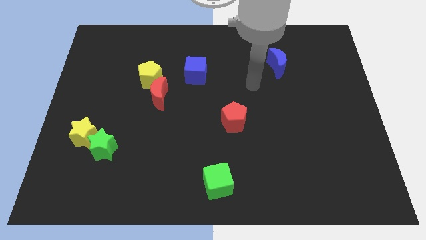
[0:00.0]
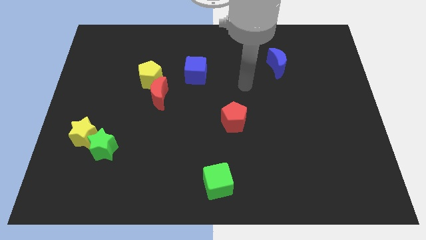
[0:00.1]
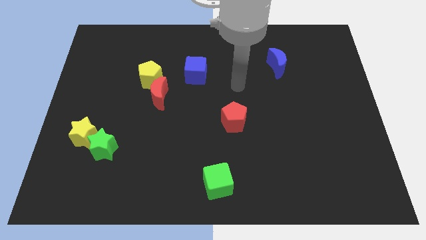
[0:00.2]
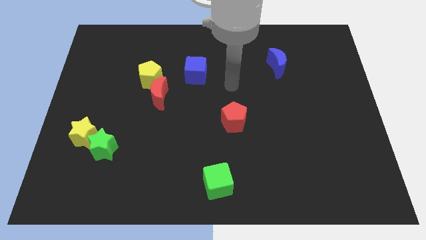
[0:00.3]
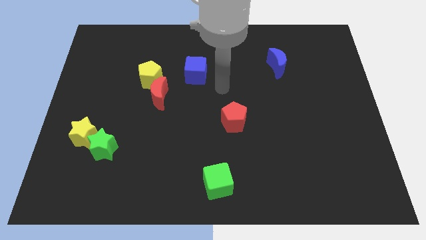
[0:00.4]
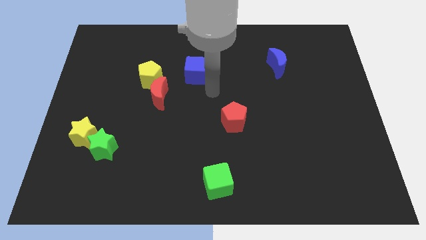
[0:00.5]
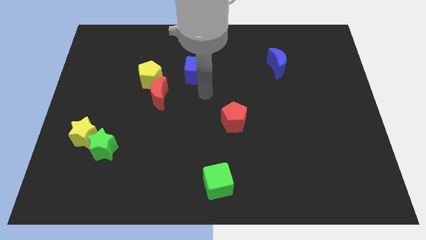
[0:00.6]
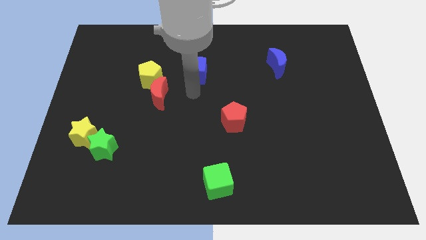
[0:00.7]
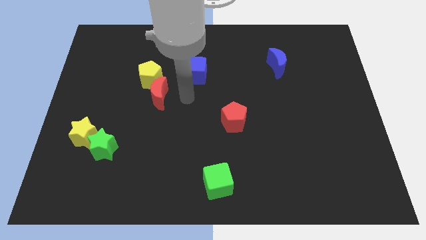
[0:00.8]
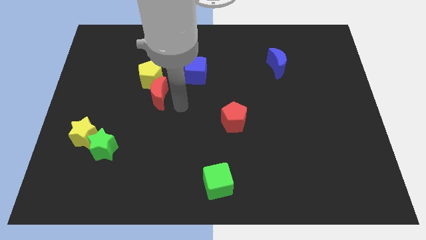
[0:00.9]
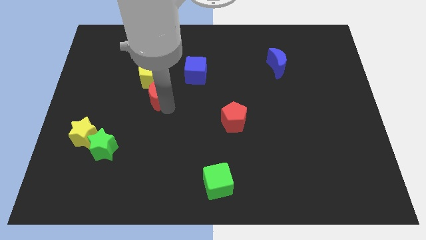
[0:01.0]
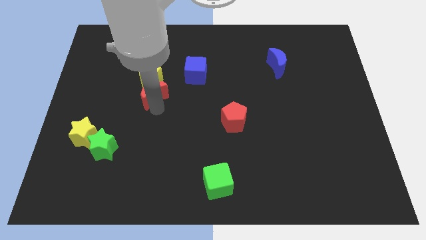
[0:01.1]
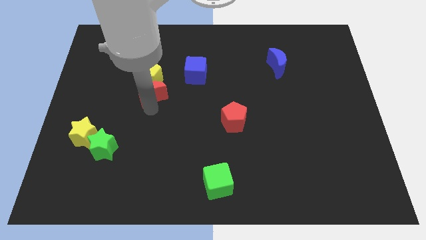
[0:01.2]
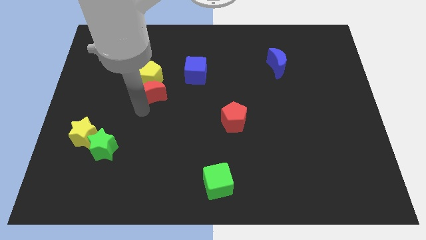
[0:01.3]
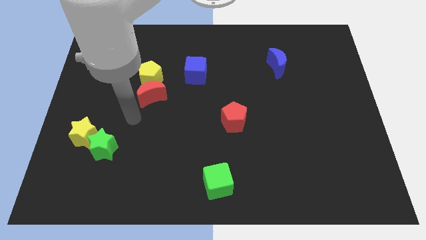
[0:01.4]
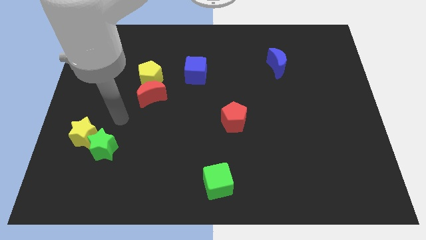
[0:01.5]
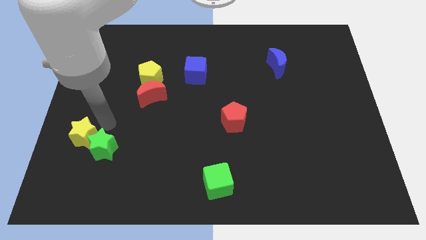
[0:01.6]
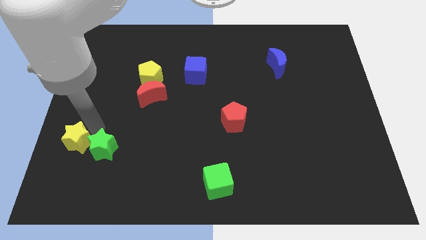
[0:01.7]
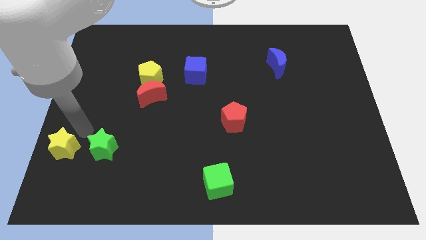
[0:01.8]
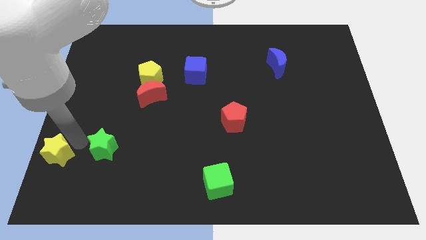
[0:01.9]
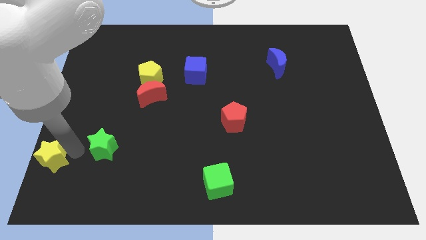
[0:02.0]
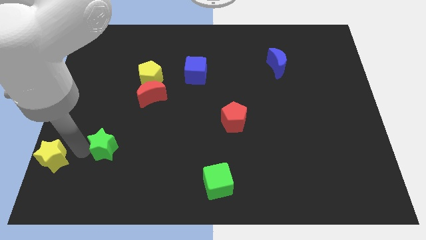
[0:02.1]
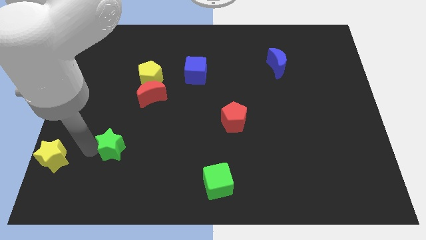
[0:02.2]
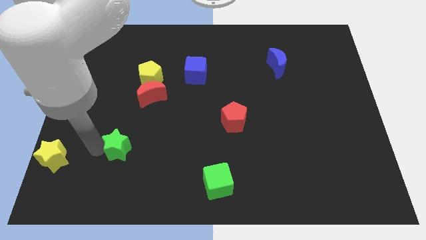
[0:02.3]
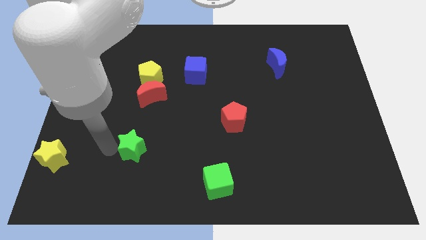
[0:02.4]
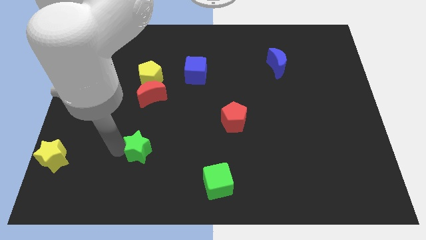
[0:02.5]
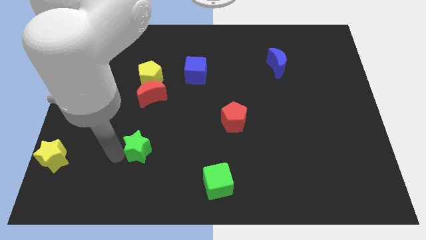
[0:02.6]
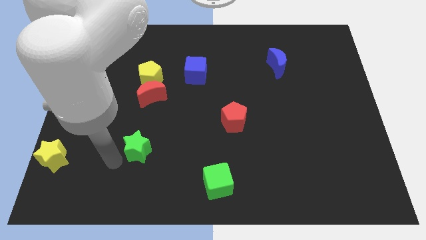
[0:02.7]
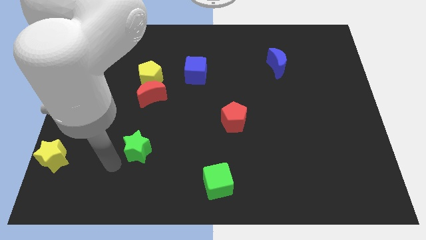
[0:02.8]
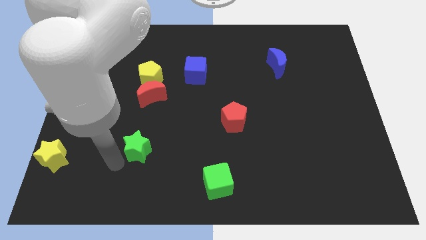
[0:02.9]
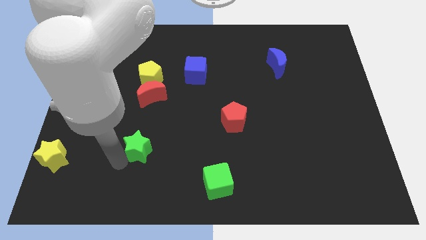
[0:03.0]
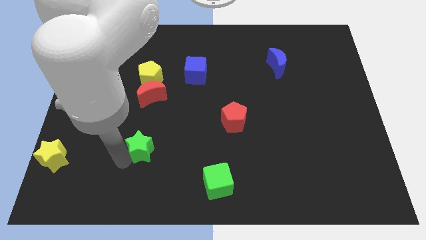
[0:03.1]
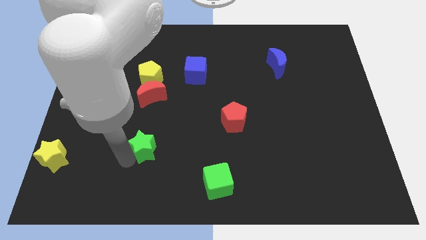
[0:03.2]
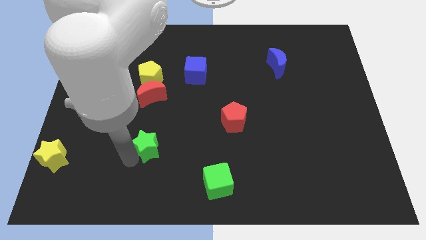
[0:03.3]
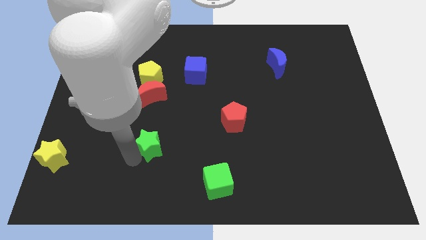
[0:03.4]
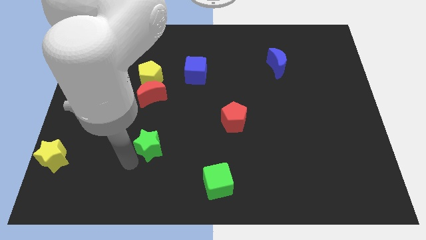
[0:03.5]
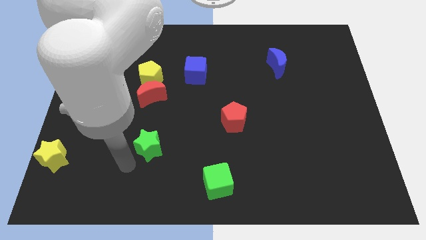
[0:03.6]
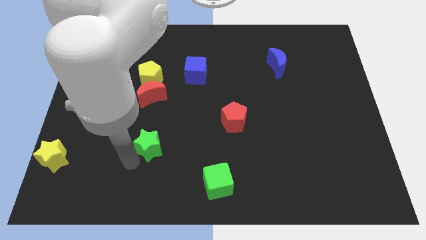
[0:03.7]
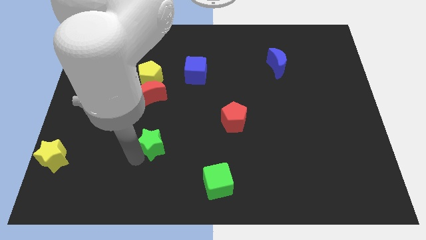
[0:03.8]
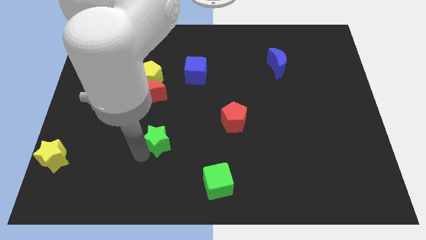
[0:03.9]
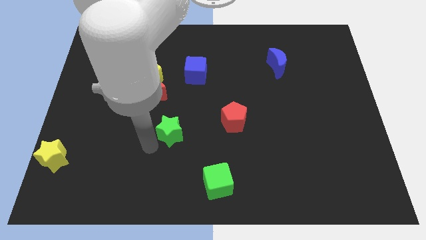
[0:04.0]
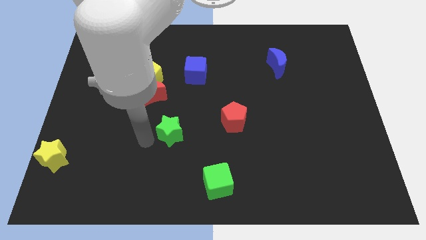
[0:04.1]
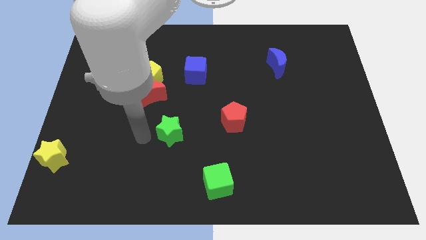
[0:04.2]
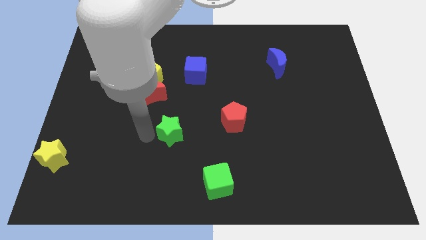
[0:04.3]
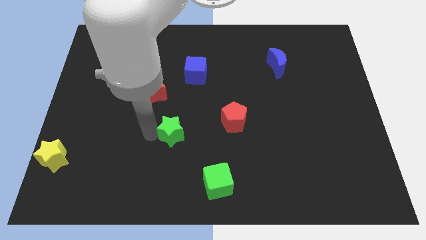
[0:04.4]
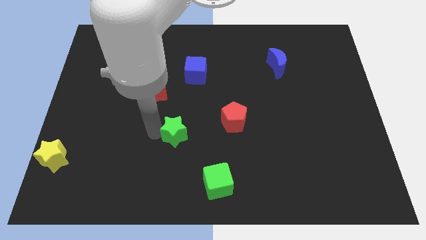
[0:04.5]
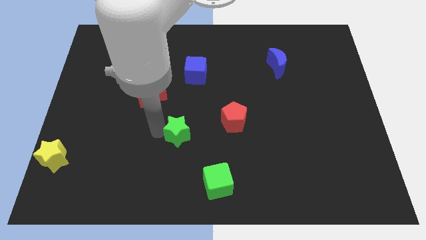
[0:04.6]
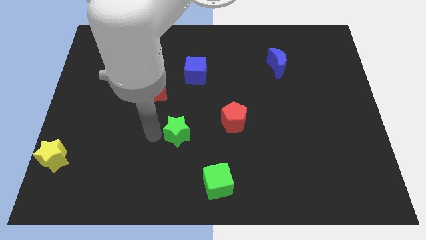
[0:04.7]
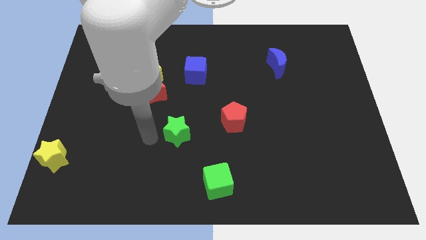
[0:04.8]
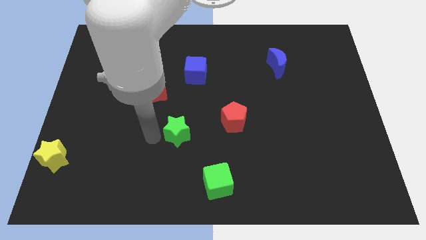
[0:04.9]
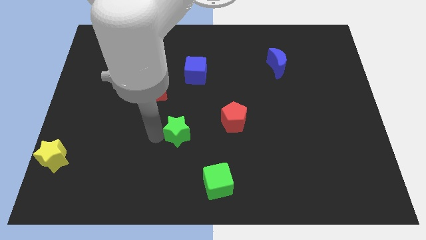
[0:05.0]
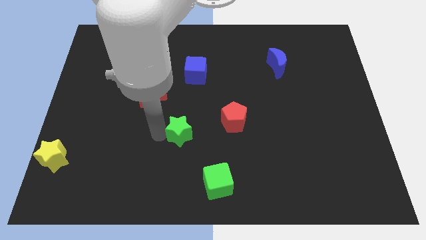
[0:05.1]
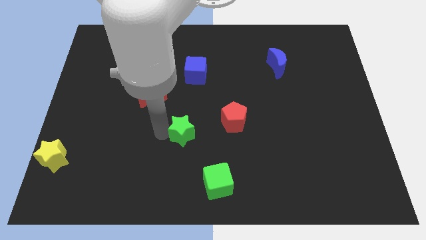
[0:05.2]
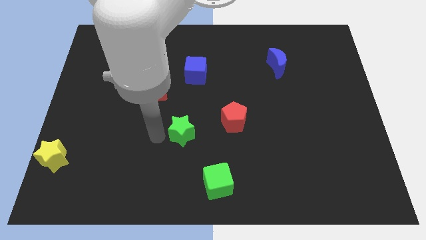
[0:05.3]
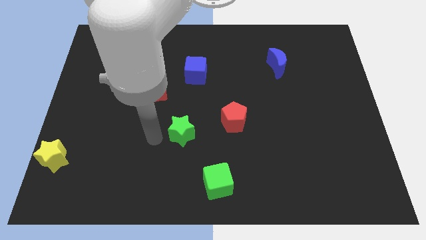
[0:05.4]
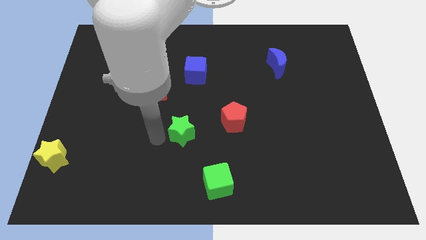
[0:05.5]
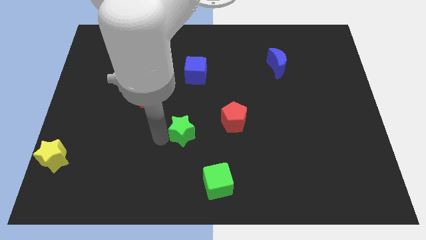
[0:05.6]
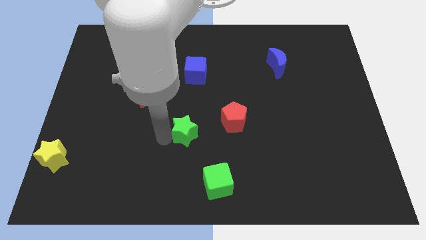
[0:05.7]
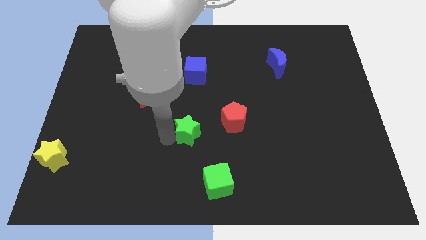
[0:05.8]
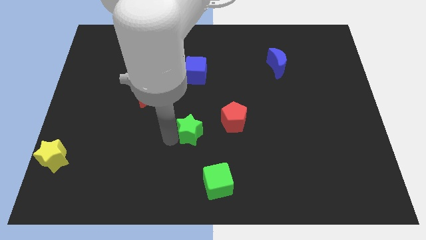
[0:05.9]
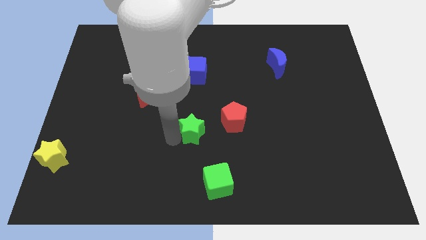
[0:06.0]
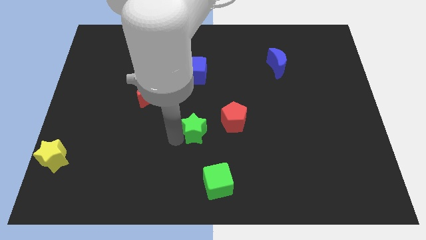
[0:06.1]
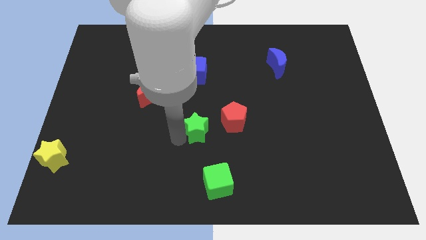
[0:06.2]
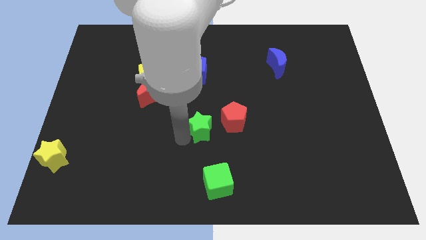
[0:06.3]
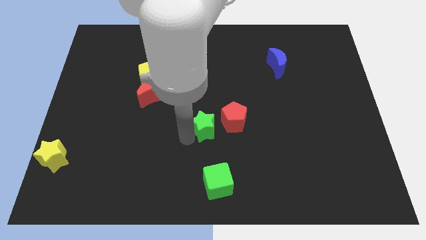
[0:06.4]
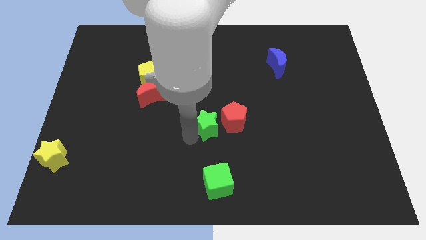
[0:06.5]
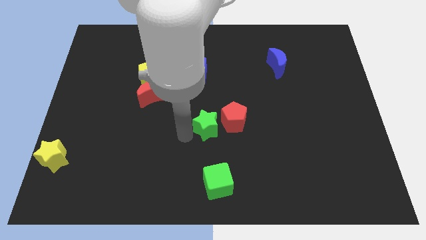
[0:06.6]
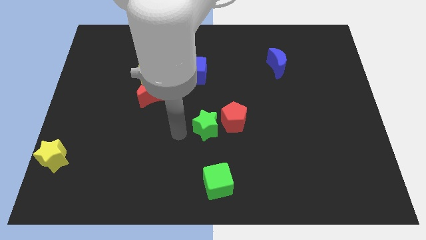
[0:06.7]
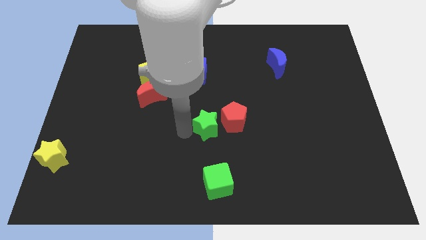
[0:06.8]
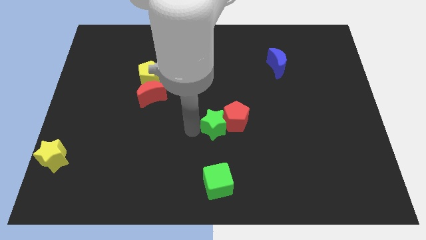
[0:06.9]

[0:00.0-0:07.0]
push the green star to the red pentagon
